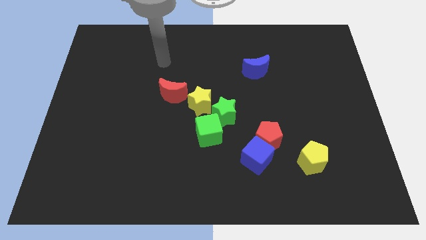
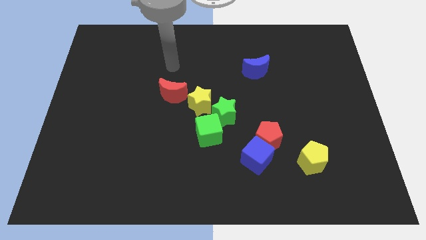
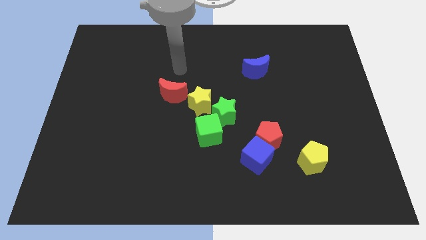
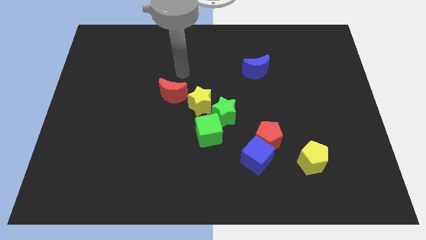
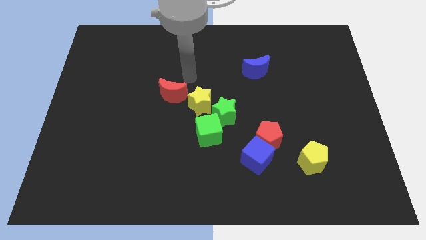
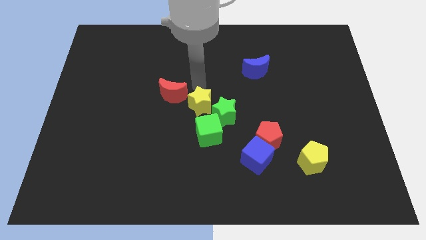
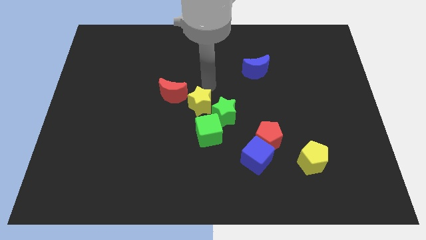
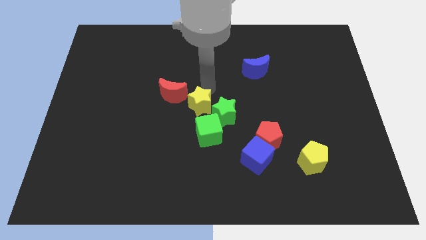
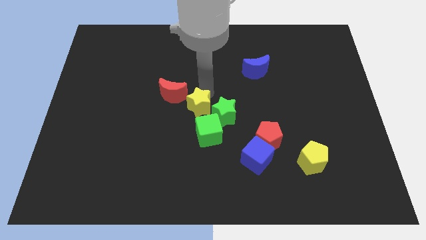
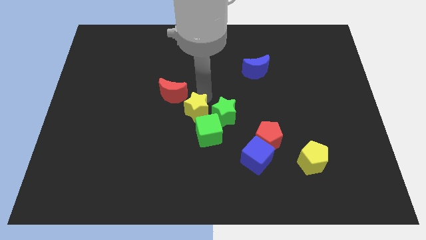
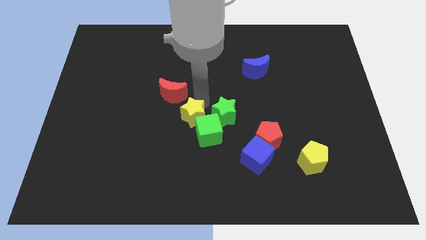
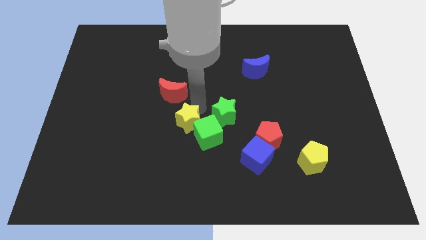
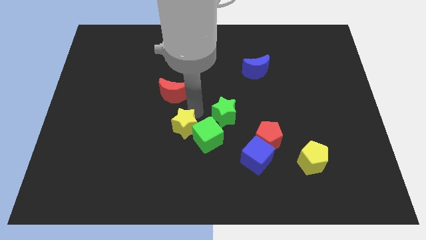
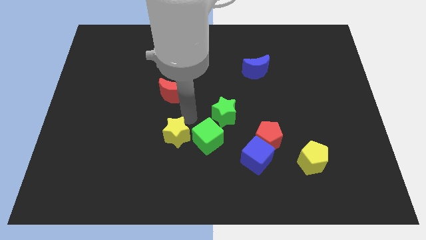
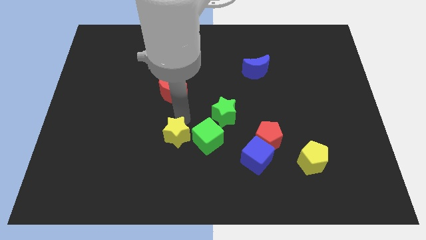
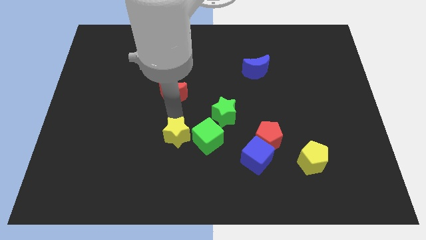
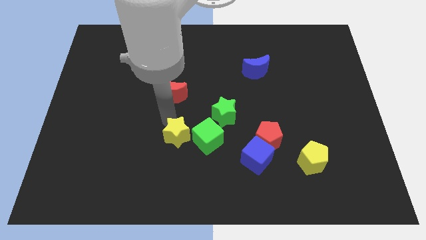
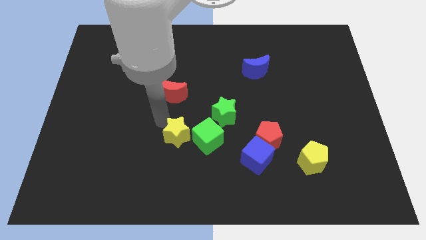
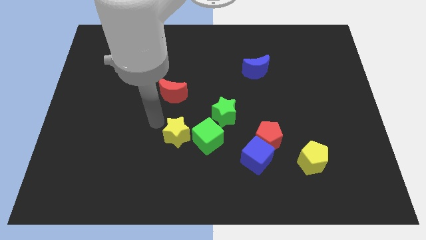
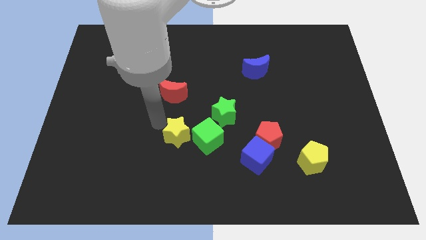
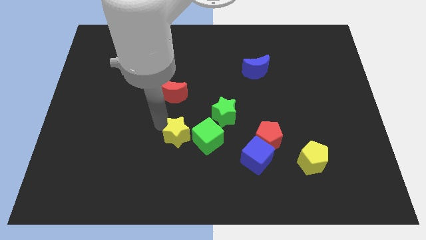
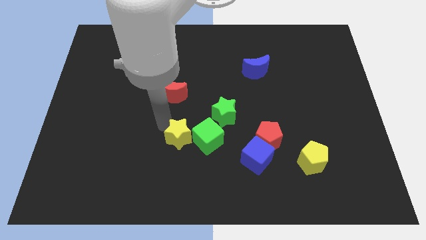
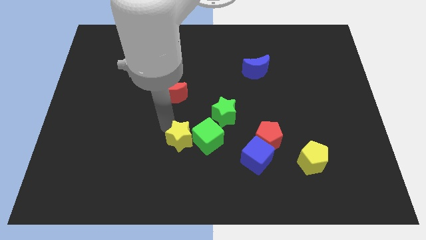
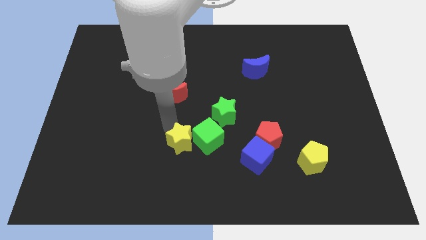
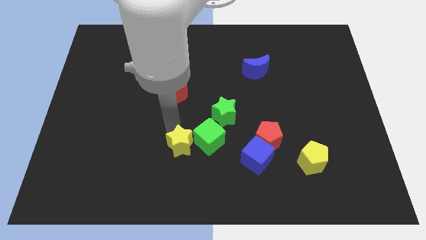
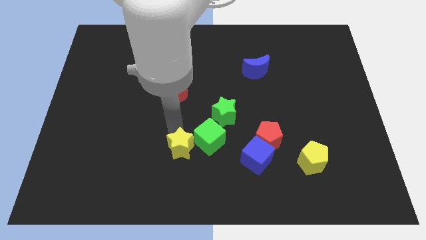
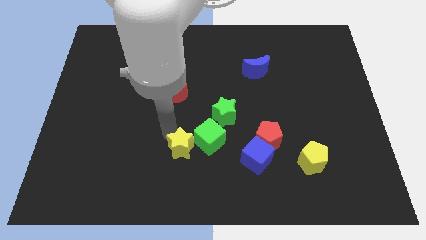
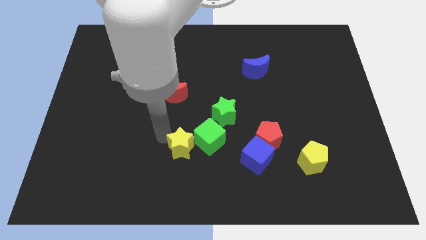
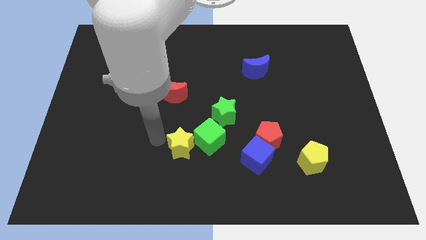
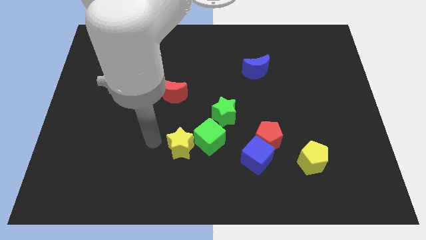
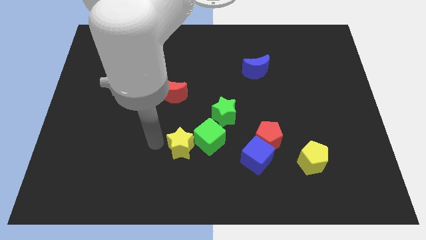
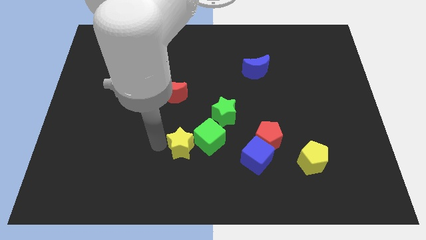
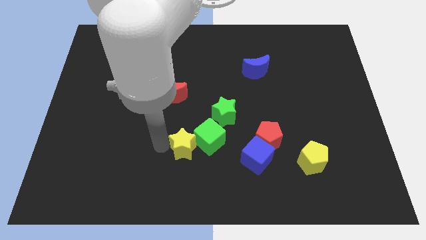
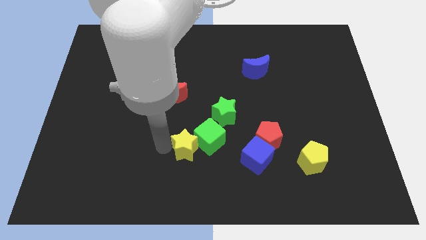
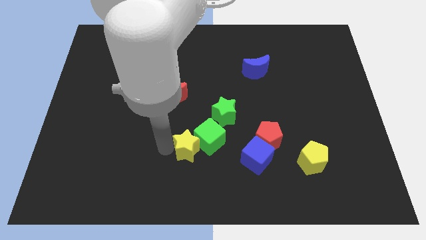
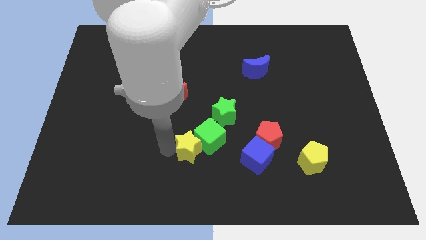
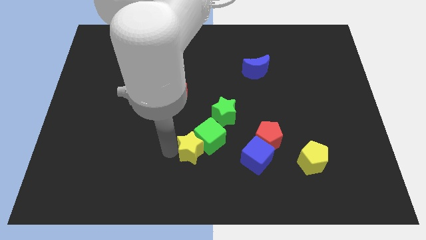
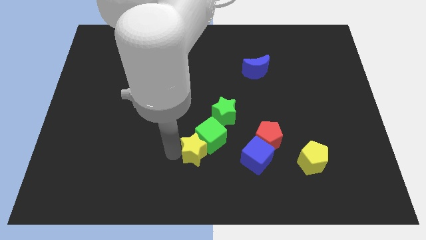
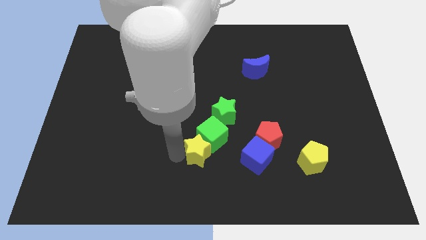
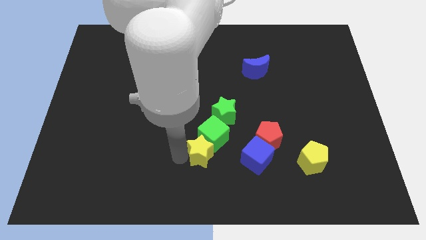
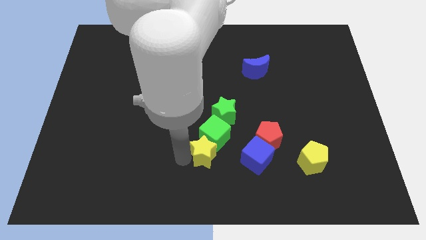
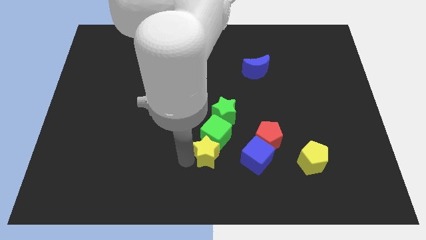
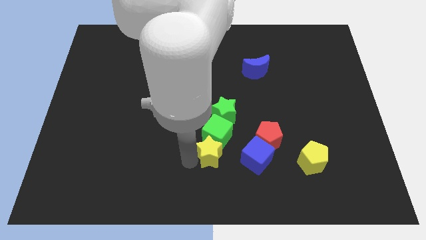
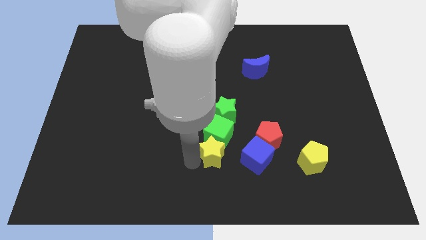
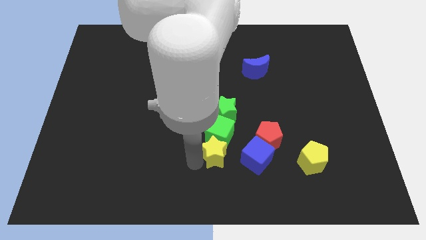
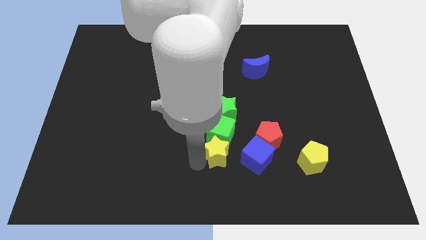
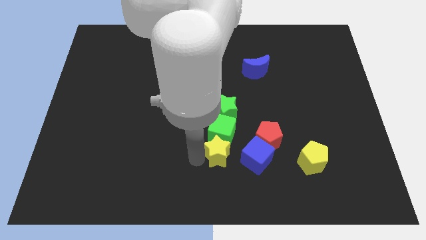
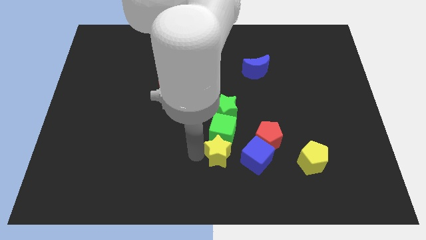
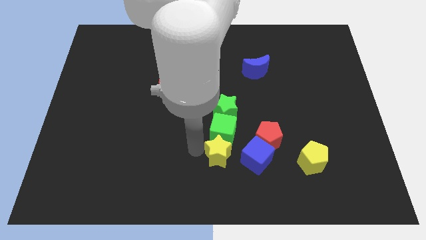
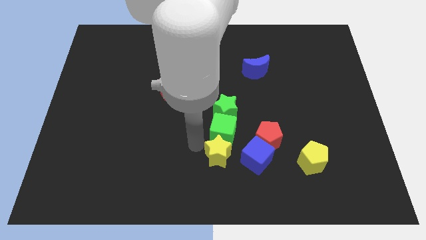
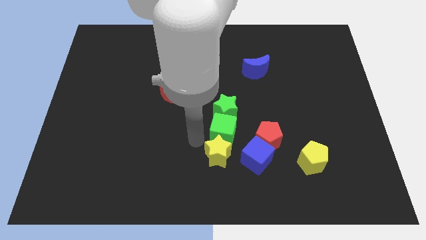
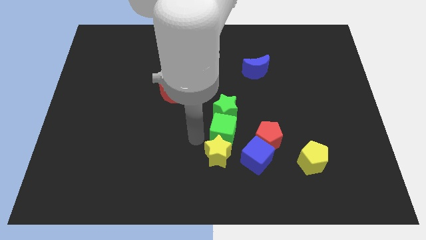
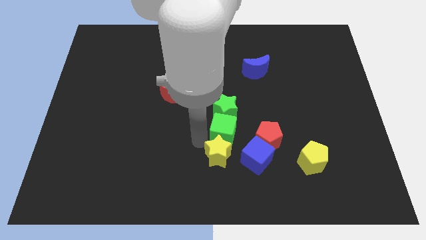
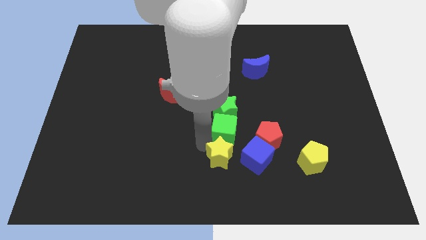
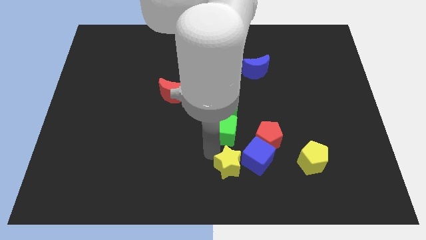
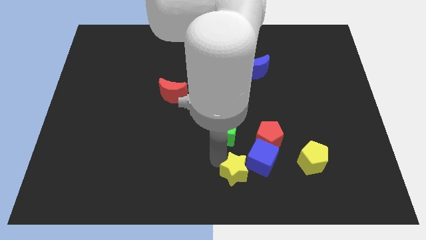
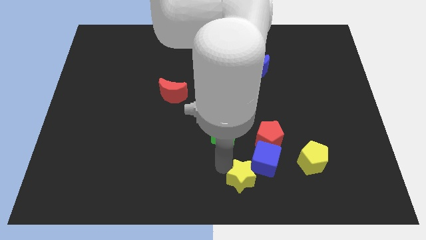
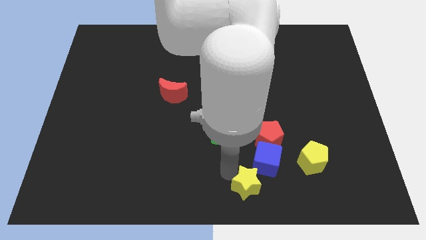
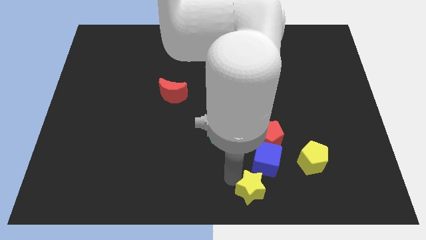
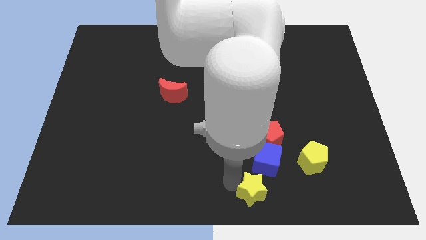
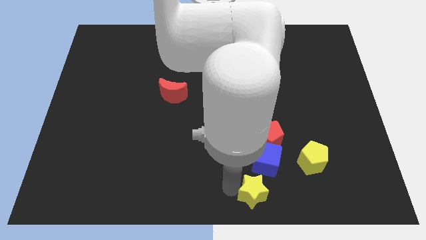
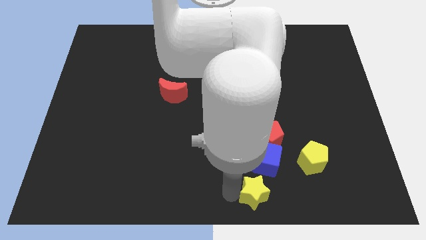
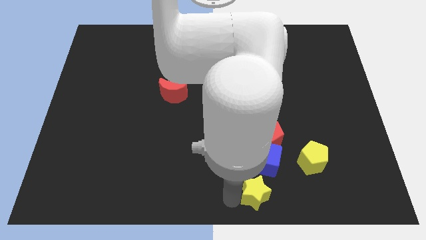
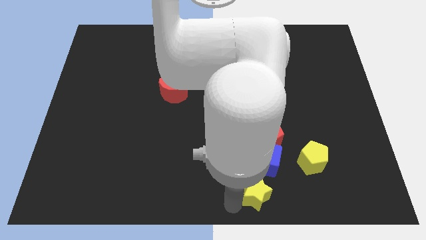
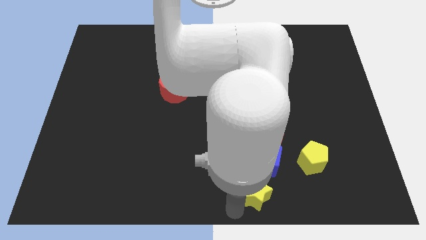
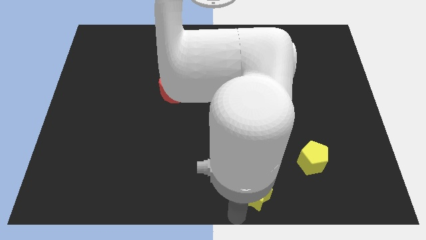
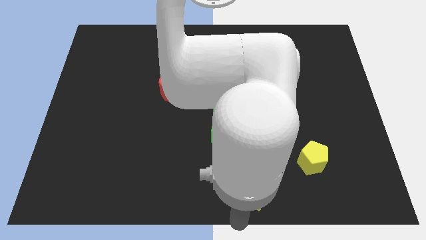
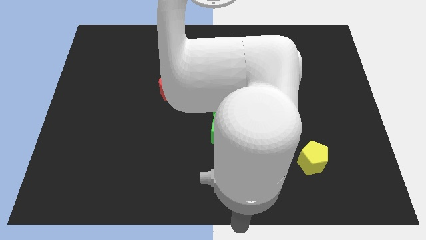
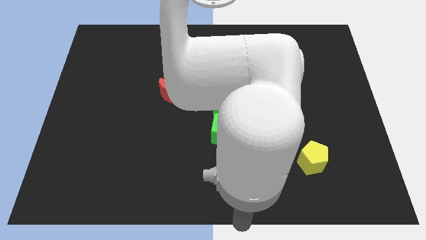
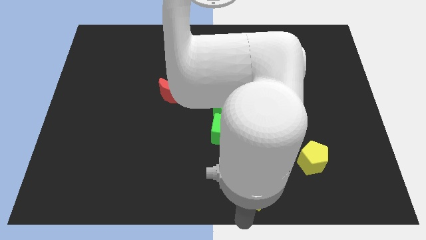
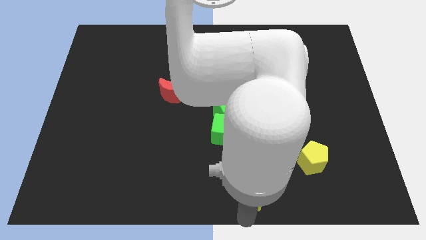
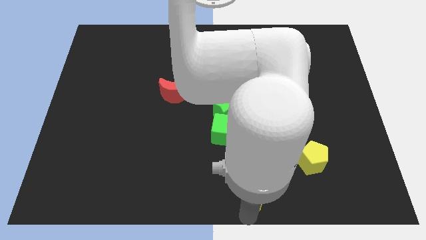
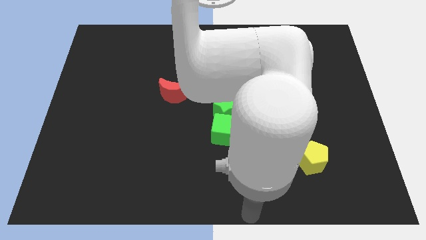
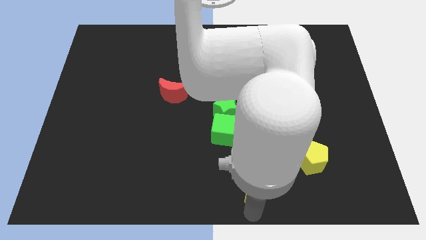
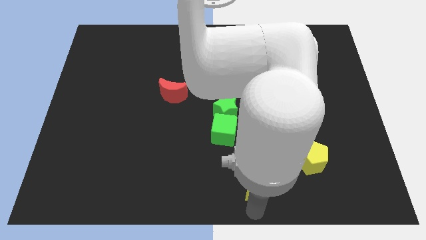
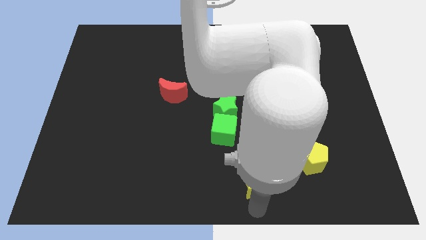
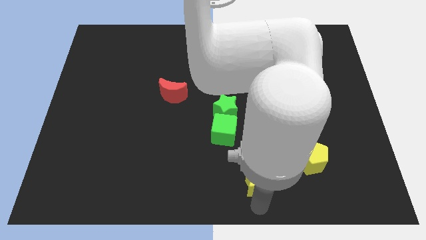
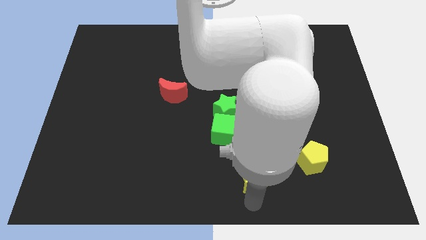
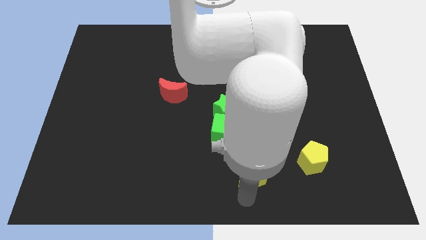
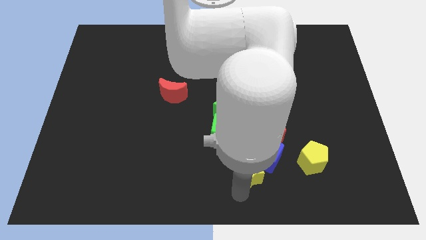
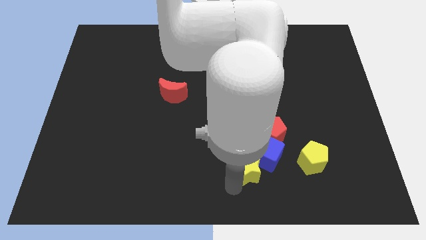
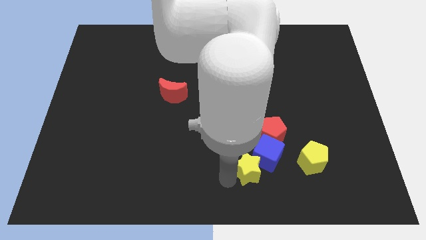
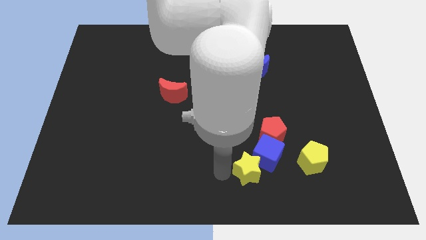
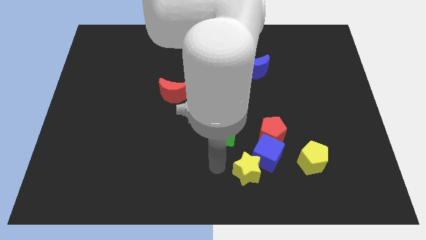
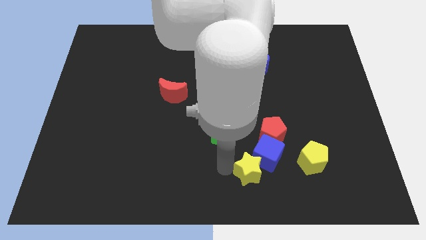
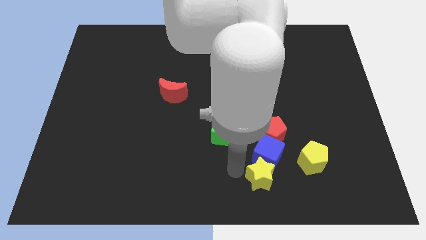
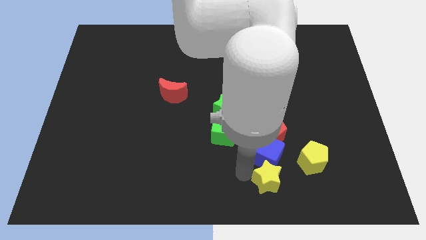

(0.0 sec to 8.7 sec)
put the yellow star to the bottom left of the yellow pentagon
